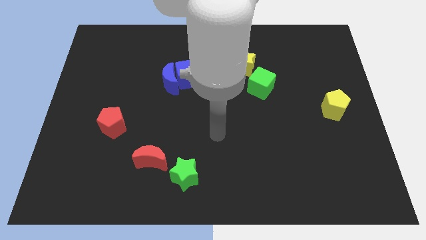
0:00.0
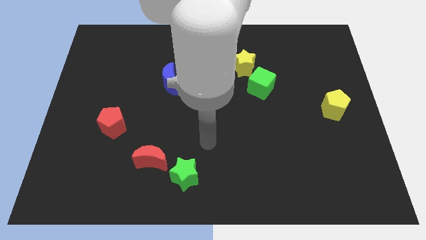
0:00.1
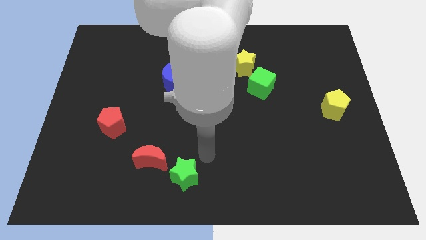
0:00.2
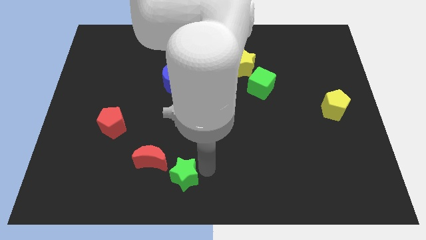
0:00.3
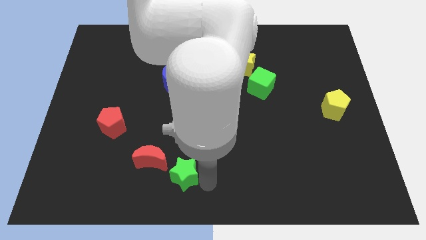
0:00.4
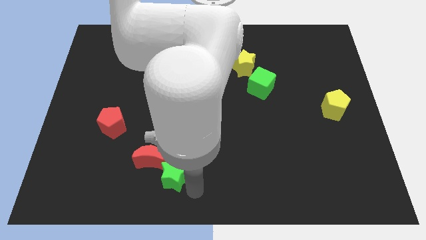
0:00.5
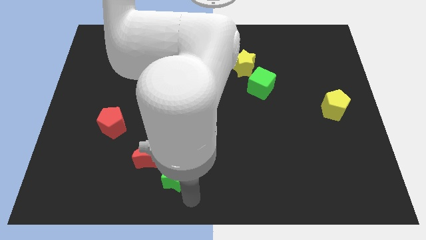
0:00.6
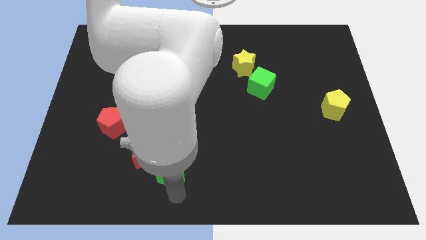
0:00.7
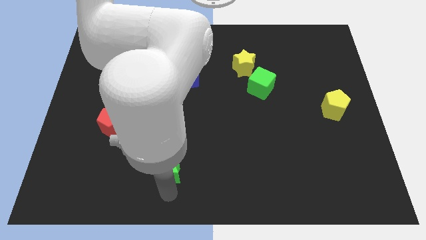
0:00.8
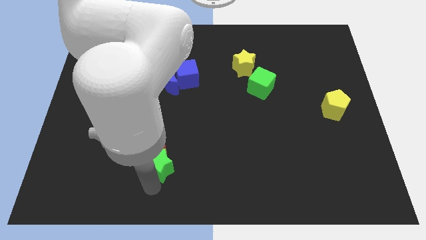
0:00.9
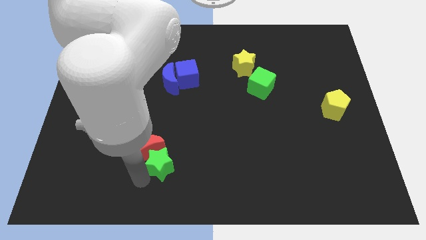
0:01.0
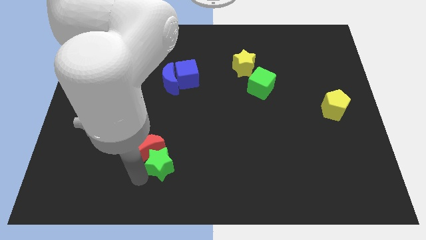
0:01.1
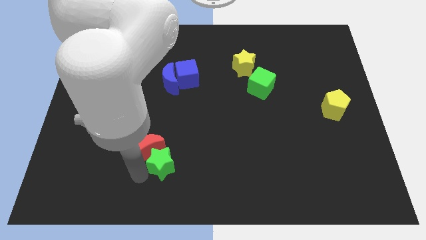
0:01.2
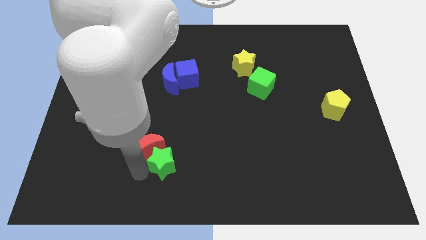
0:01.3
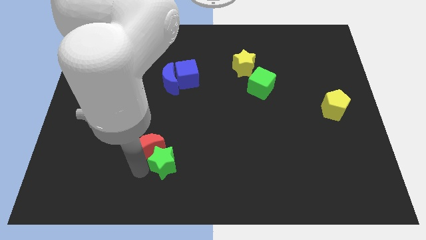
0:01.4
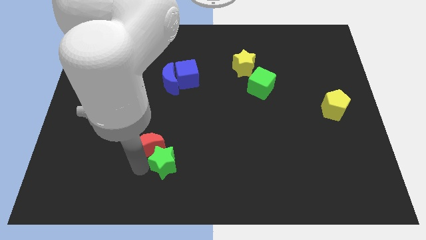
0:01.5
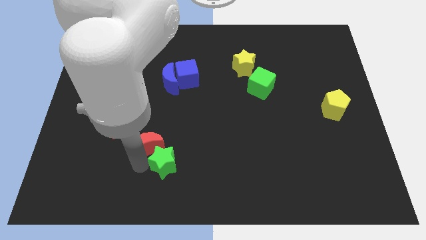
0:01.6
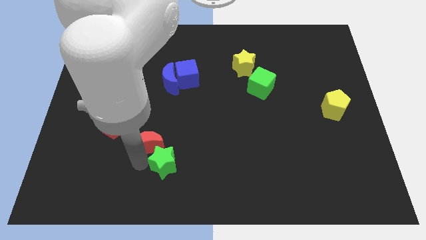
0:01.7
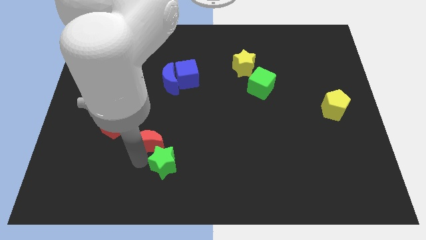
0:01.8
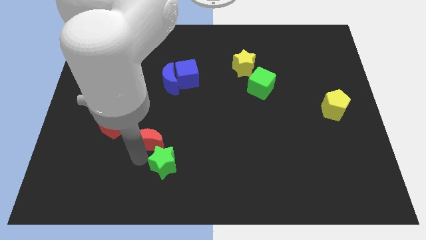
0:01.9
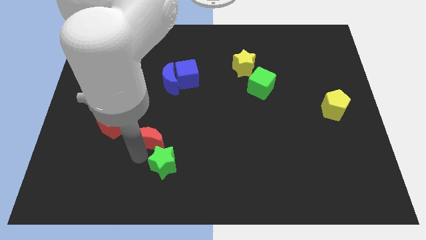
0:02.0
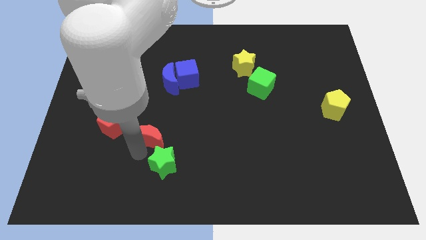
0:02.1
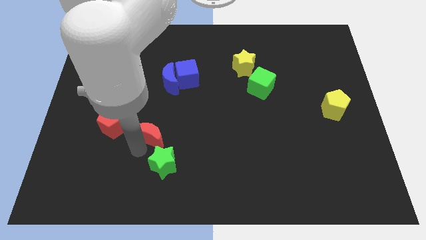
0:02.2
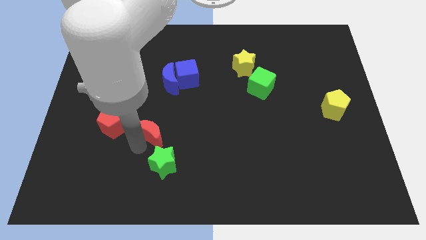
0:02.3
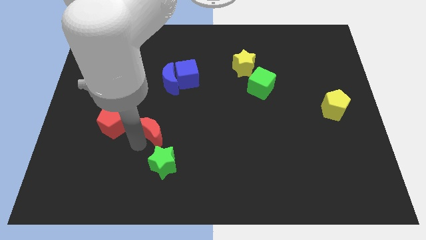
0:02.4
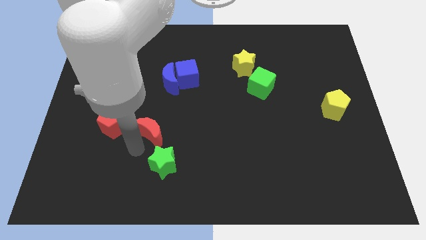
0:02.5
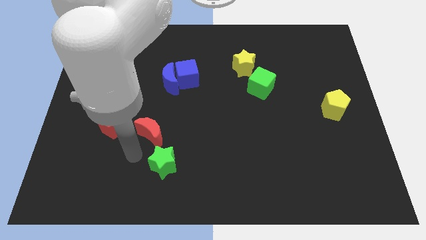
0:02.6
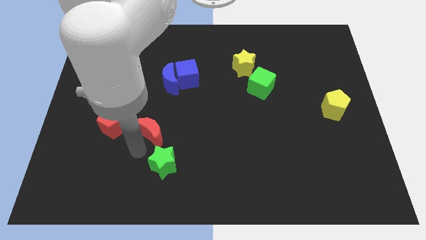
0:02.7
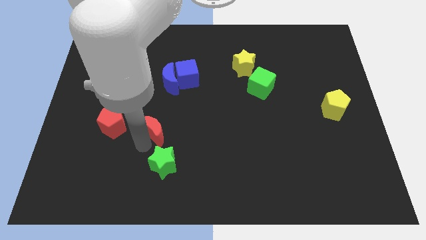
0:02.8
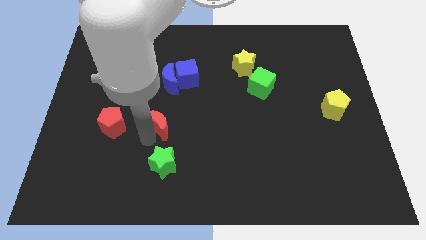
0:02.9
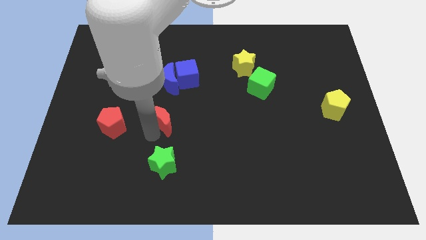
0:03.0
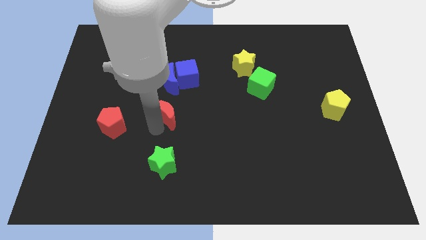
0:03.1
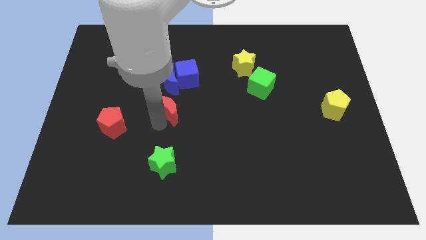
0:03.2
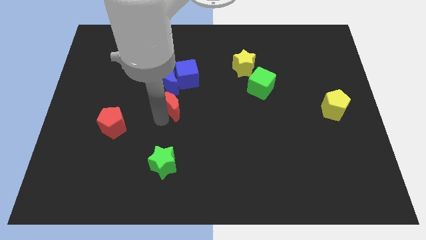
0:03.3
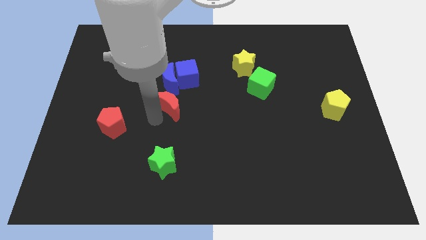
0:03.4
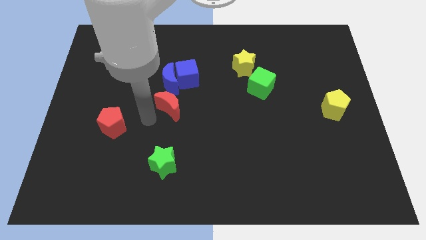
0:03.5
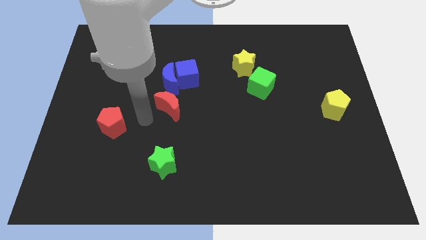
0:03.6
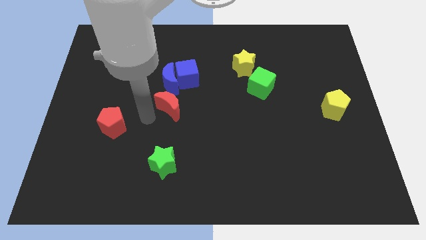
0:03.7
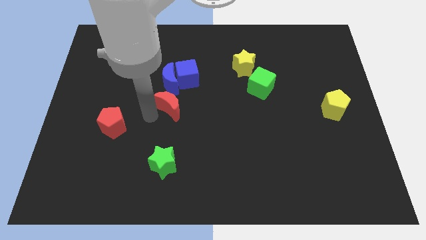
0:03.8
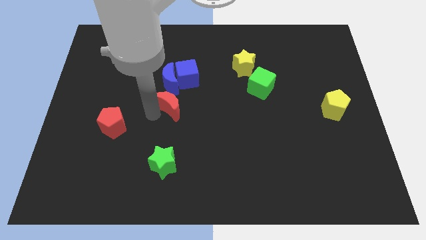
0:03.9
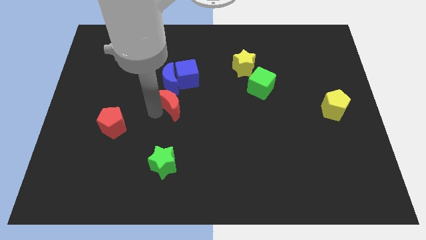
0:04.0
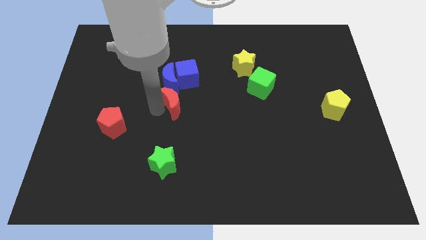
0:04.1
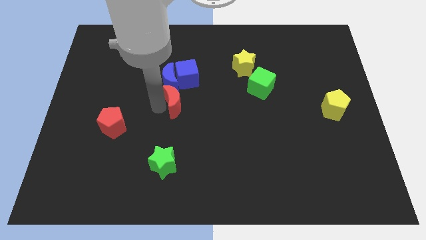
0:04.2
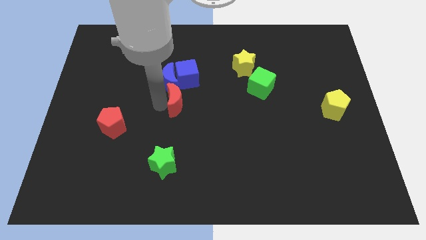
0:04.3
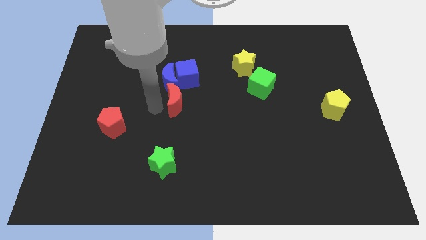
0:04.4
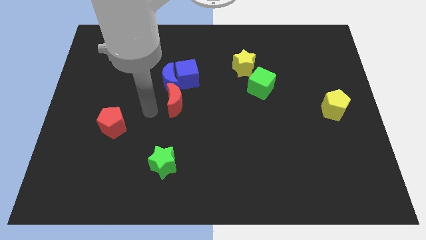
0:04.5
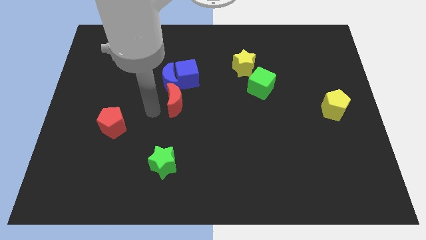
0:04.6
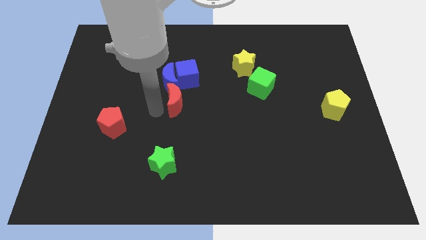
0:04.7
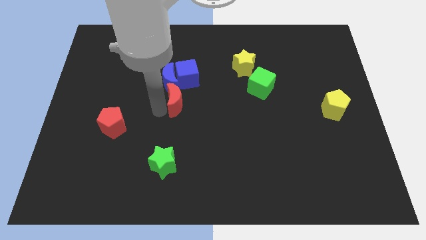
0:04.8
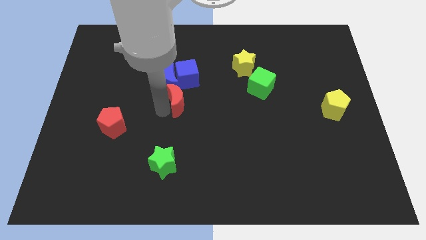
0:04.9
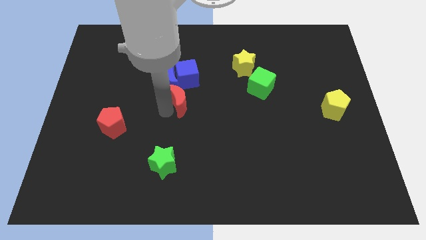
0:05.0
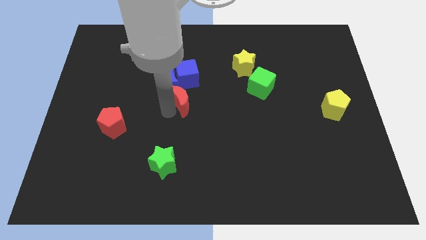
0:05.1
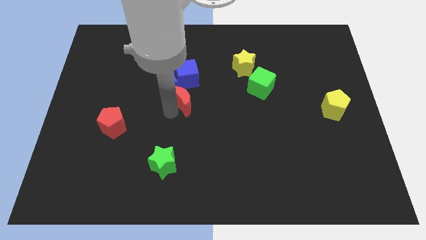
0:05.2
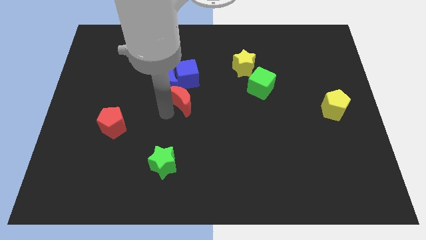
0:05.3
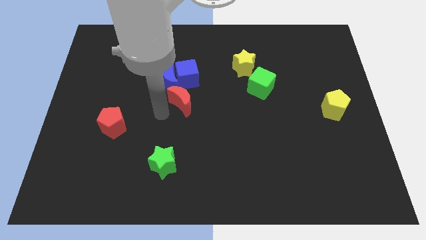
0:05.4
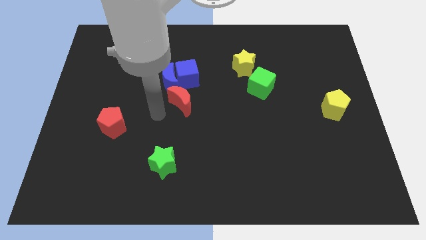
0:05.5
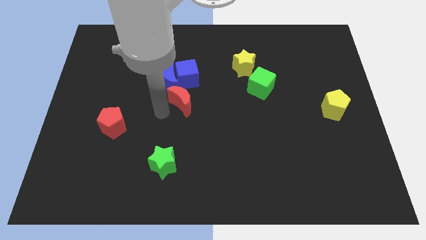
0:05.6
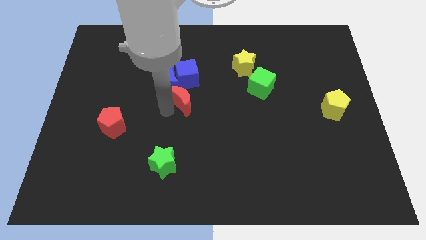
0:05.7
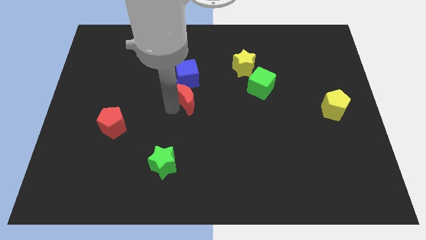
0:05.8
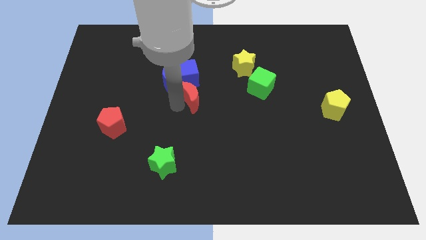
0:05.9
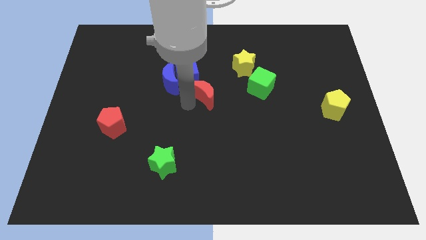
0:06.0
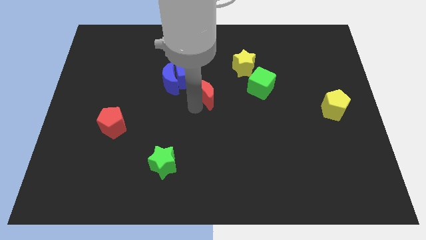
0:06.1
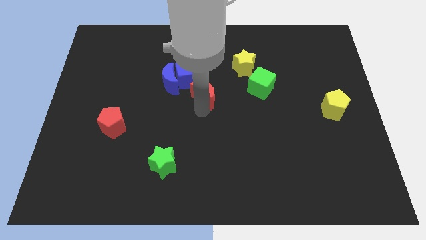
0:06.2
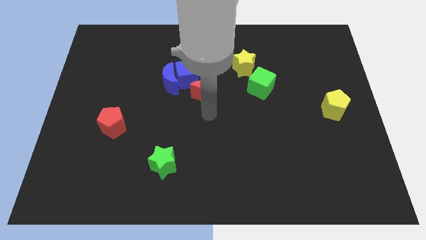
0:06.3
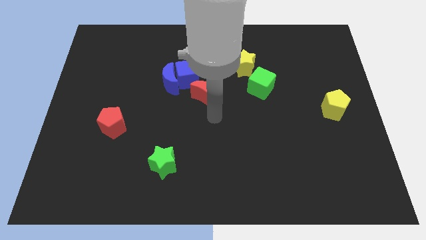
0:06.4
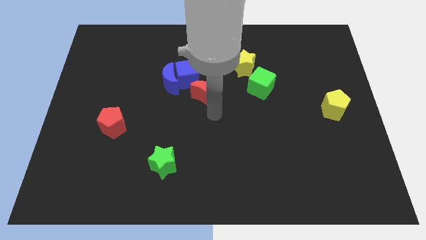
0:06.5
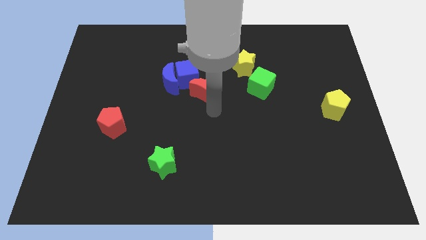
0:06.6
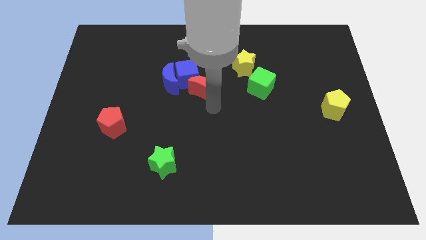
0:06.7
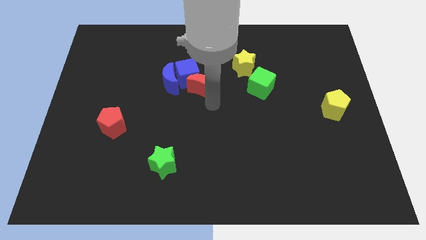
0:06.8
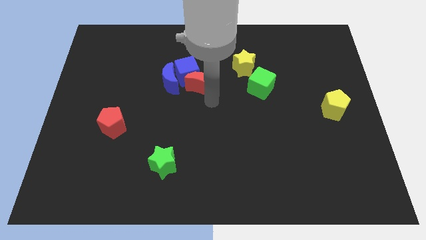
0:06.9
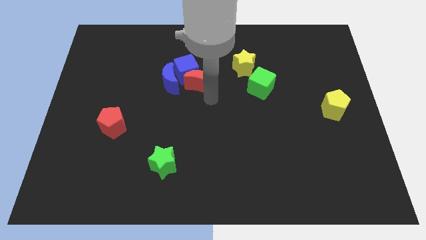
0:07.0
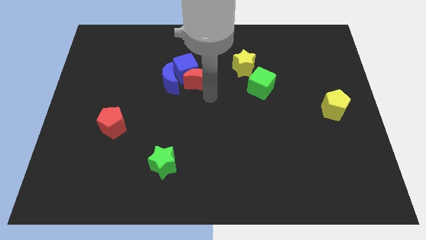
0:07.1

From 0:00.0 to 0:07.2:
put the red moon diagonally up and to the right of the blue moon
